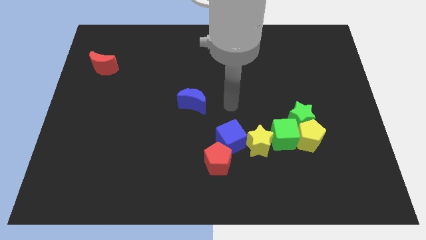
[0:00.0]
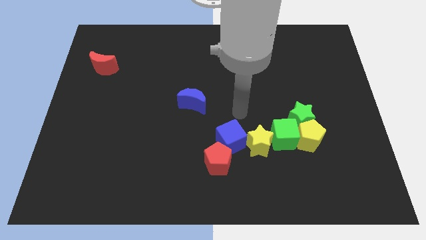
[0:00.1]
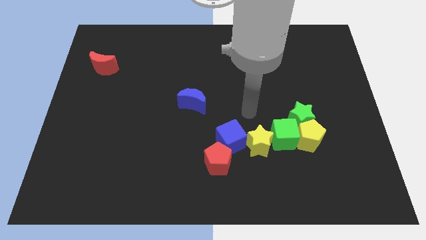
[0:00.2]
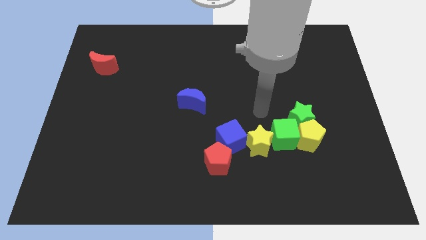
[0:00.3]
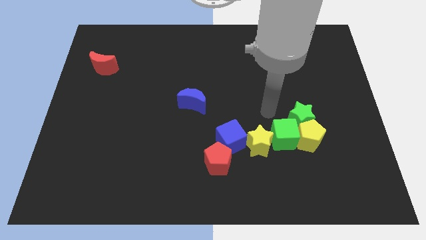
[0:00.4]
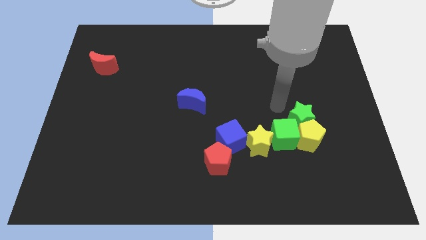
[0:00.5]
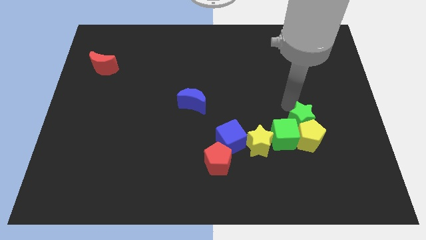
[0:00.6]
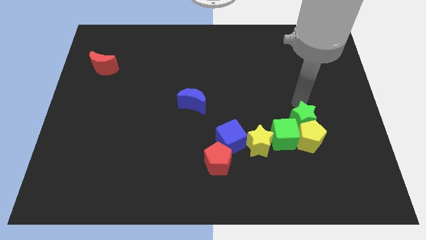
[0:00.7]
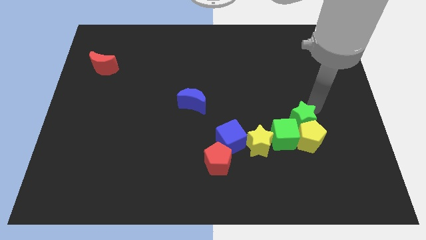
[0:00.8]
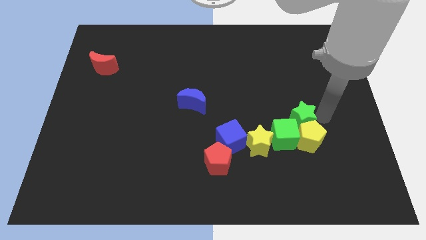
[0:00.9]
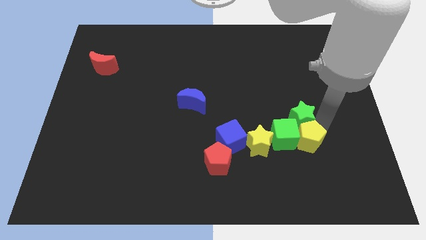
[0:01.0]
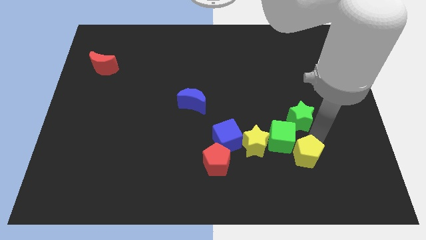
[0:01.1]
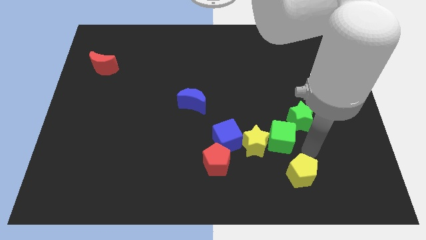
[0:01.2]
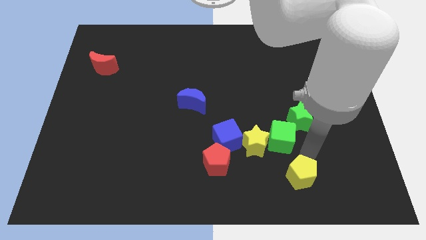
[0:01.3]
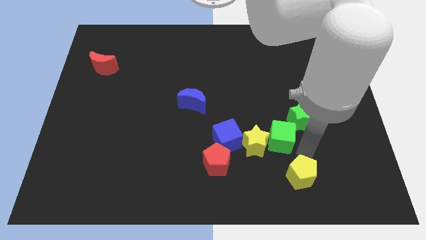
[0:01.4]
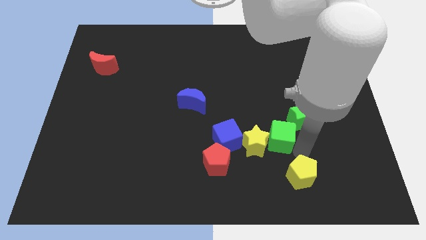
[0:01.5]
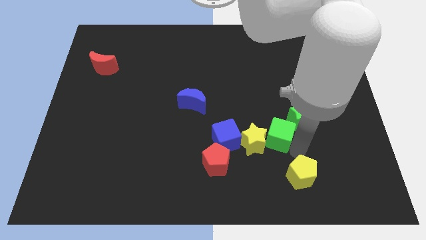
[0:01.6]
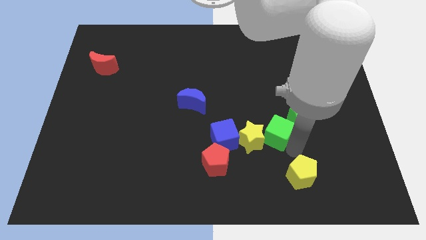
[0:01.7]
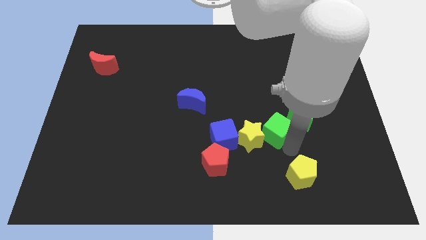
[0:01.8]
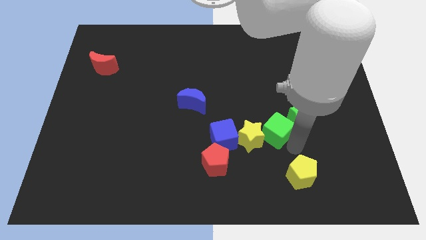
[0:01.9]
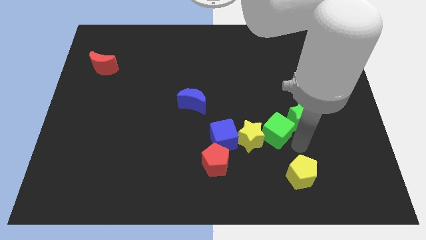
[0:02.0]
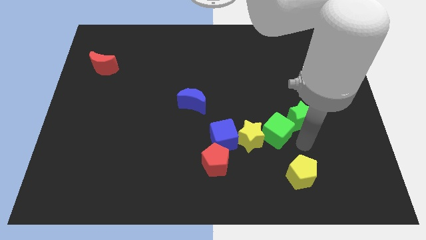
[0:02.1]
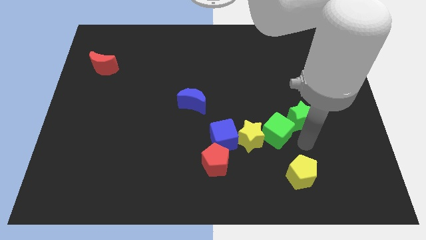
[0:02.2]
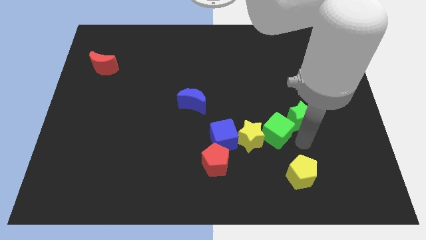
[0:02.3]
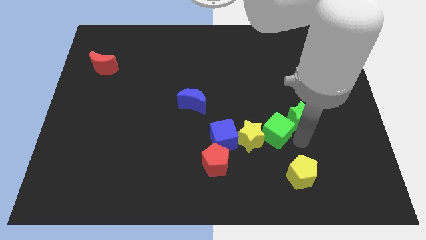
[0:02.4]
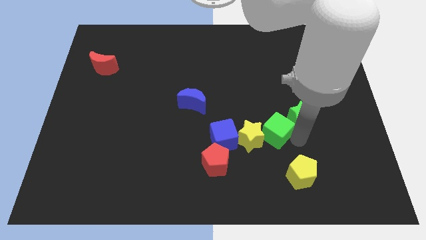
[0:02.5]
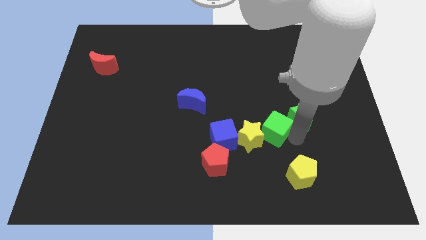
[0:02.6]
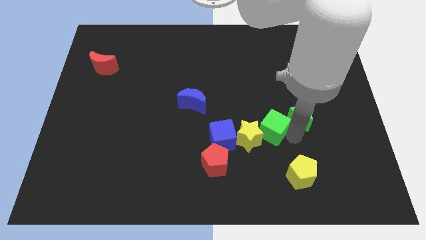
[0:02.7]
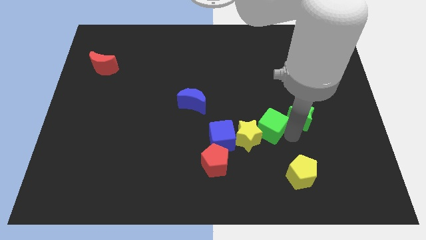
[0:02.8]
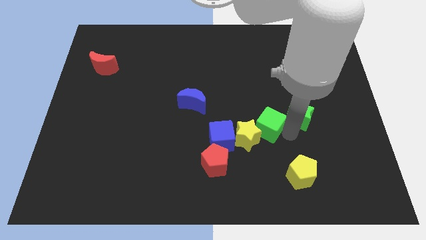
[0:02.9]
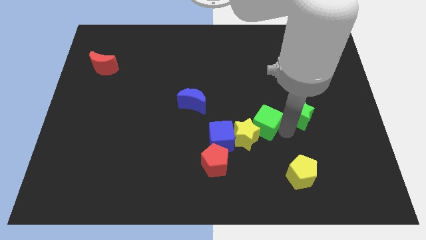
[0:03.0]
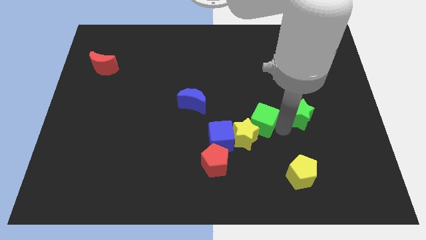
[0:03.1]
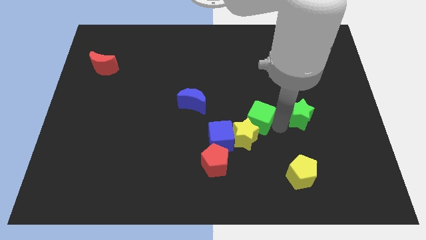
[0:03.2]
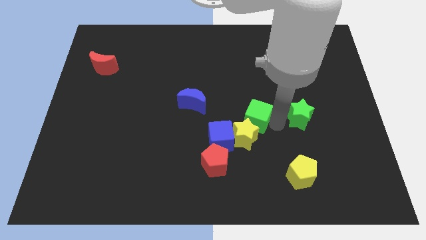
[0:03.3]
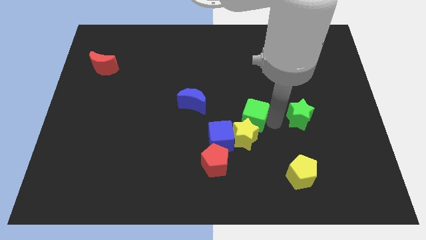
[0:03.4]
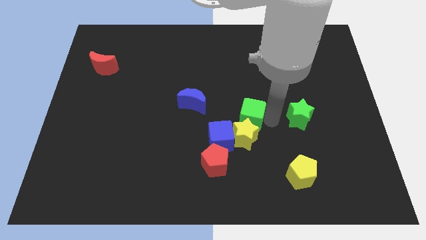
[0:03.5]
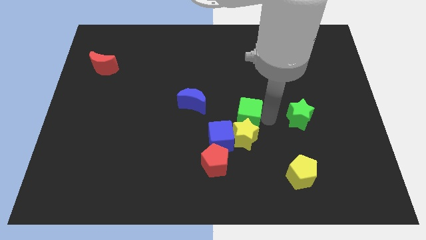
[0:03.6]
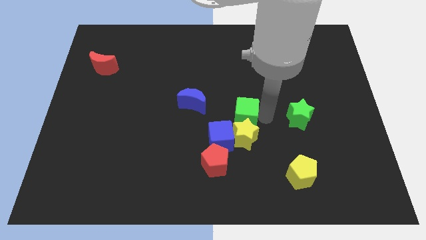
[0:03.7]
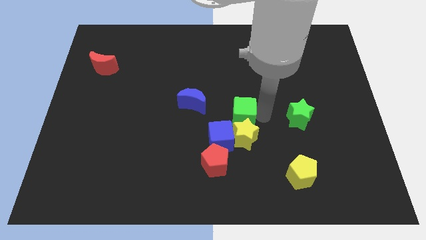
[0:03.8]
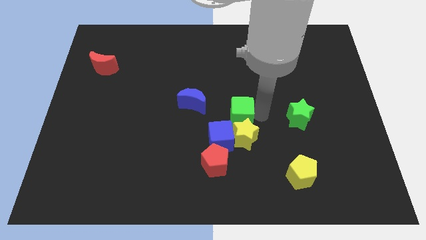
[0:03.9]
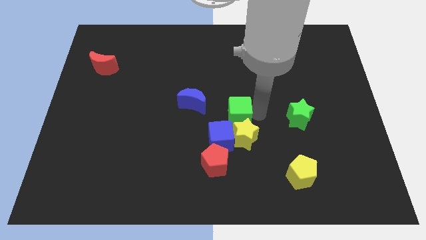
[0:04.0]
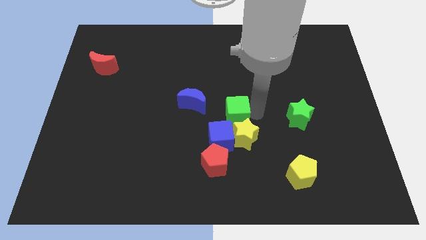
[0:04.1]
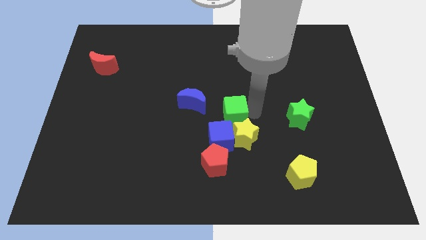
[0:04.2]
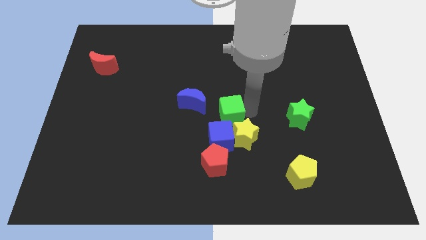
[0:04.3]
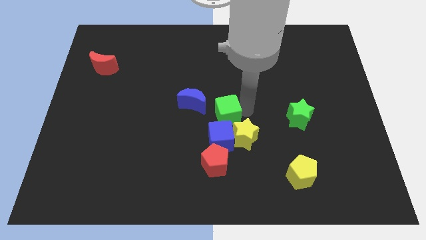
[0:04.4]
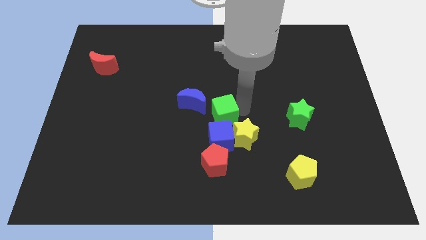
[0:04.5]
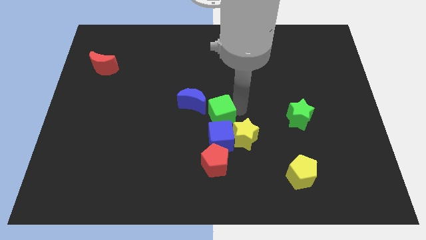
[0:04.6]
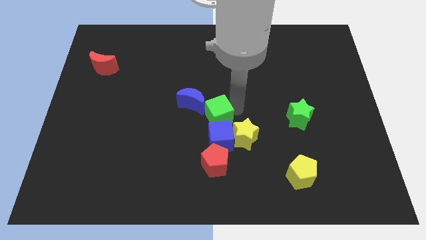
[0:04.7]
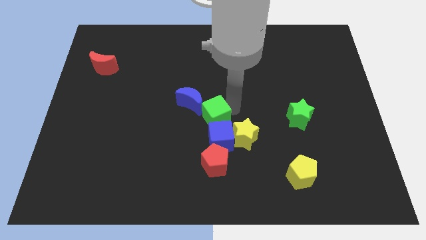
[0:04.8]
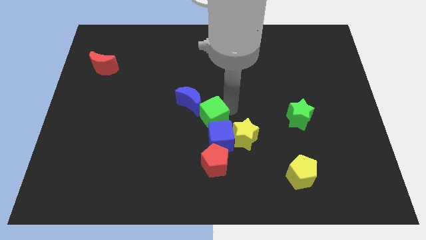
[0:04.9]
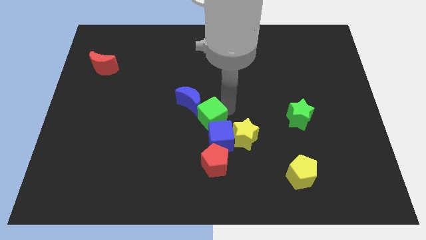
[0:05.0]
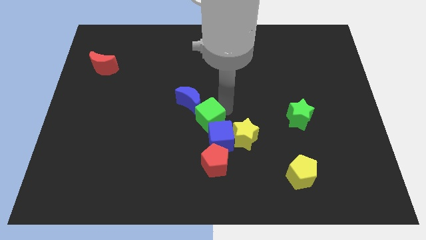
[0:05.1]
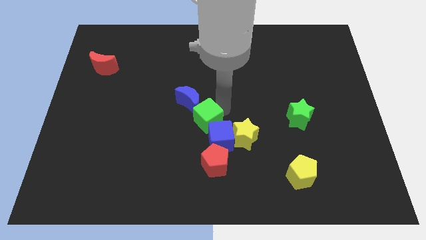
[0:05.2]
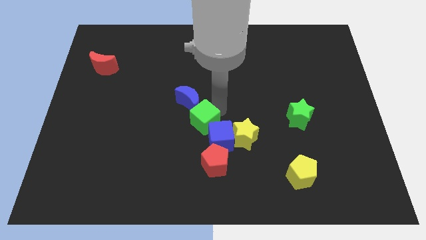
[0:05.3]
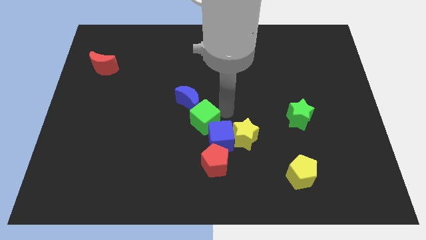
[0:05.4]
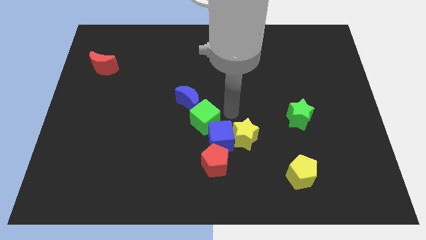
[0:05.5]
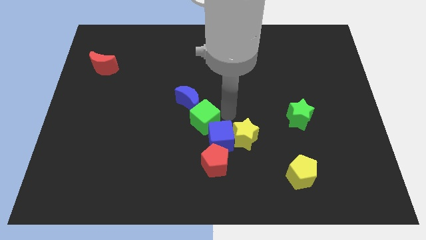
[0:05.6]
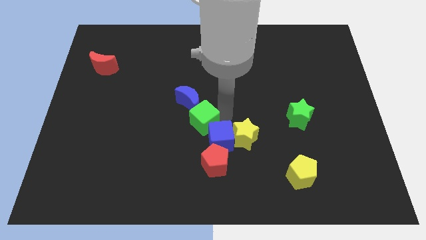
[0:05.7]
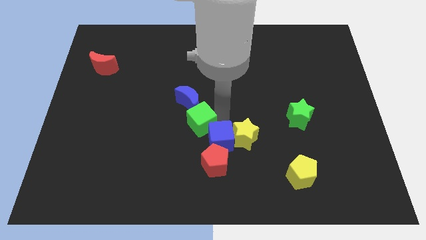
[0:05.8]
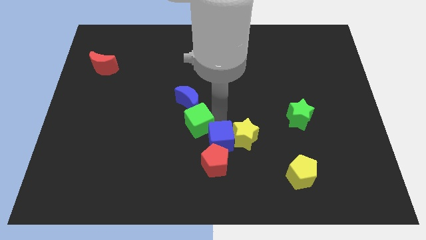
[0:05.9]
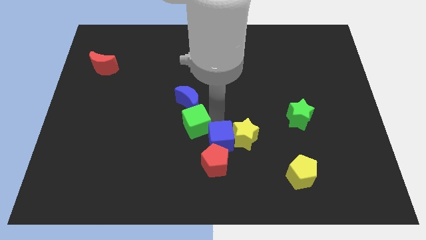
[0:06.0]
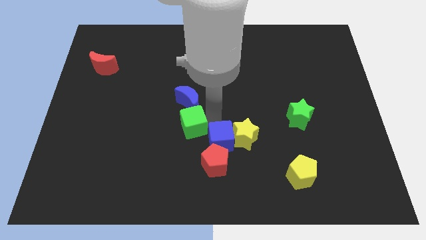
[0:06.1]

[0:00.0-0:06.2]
move the green cube left

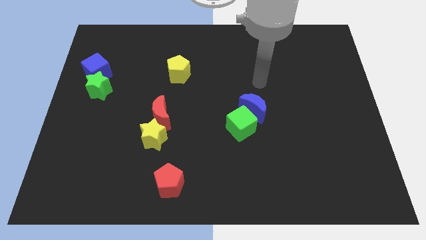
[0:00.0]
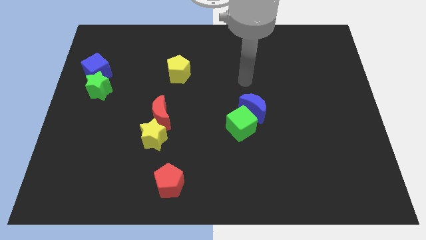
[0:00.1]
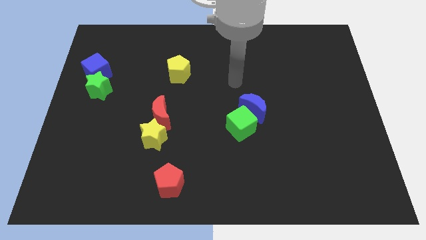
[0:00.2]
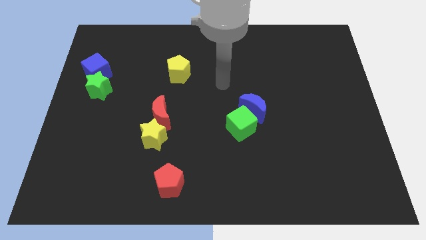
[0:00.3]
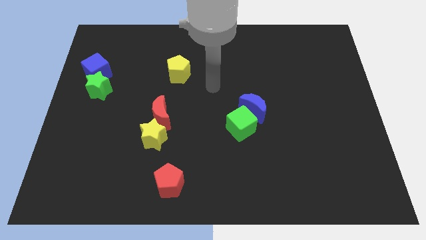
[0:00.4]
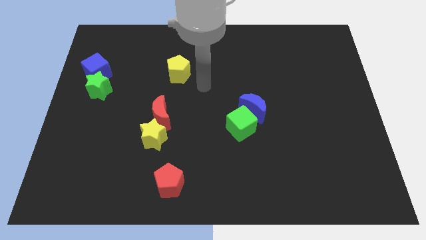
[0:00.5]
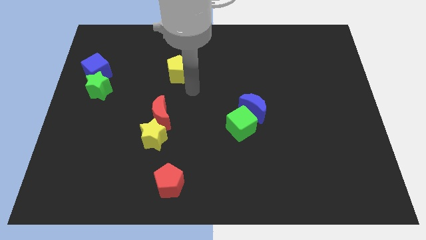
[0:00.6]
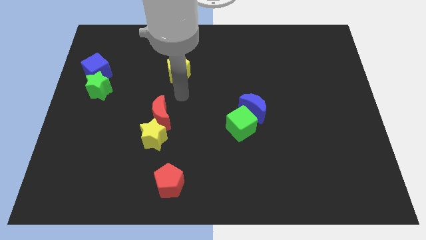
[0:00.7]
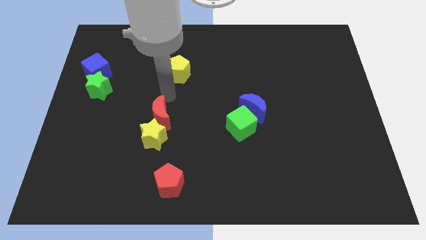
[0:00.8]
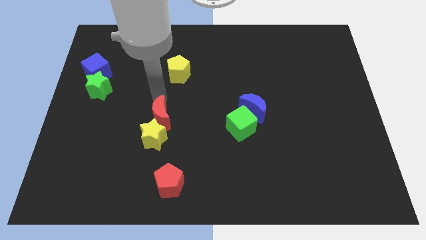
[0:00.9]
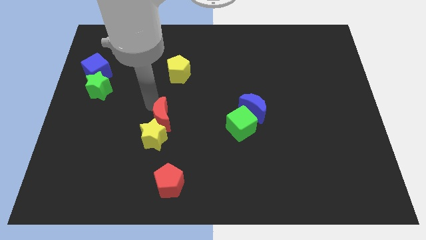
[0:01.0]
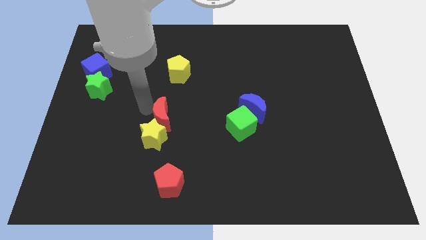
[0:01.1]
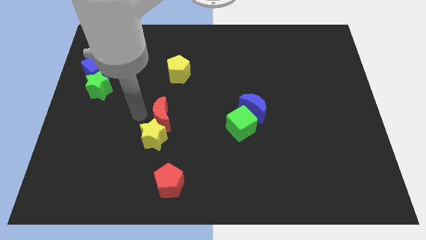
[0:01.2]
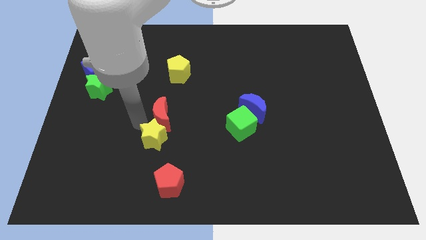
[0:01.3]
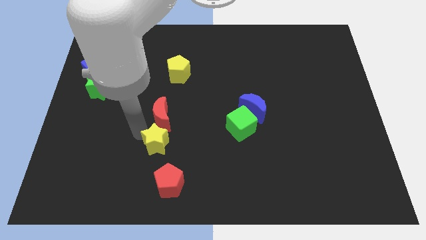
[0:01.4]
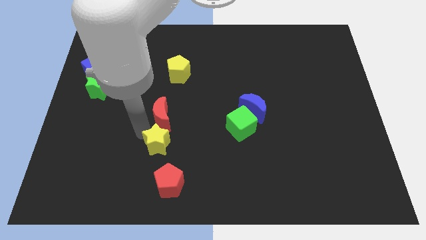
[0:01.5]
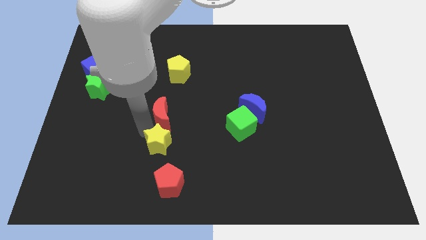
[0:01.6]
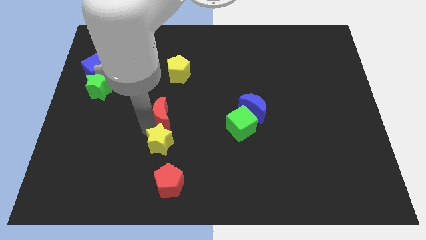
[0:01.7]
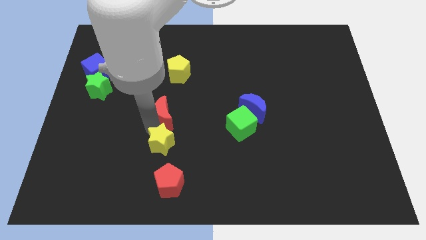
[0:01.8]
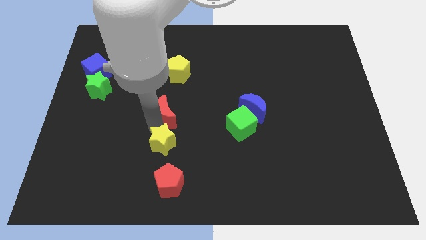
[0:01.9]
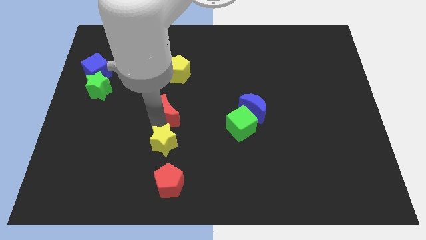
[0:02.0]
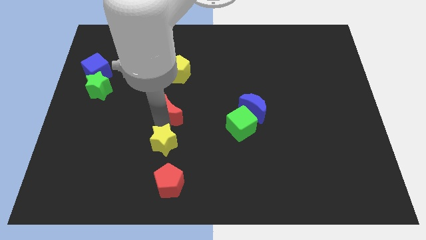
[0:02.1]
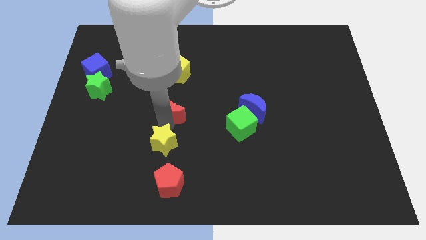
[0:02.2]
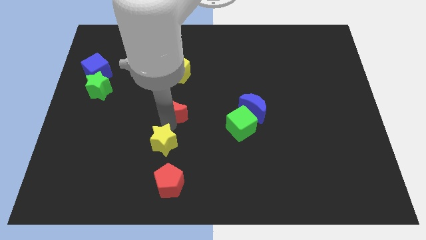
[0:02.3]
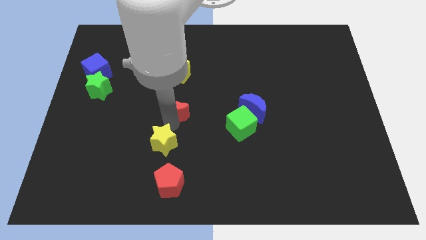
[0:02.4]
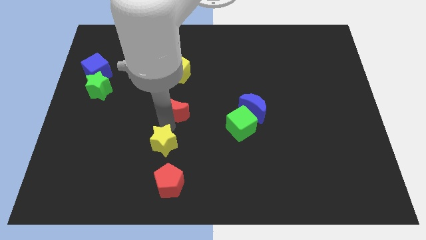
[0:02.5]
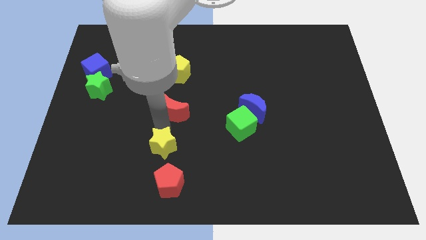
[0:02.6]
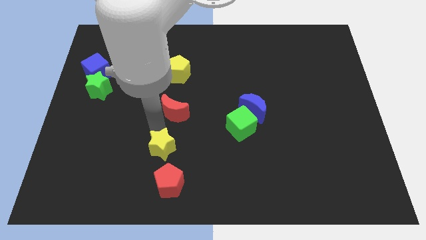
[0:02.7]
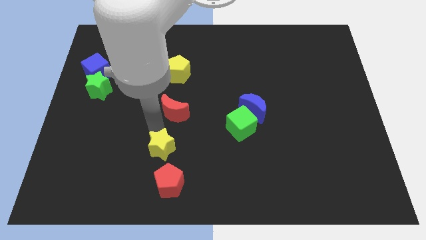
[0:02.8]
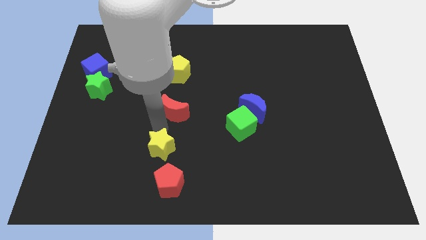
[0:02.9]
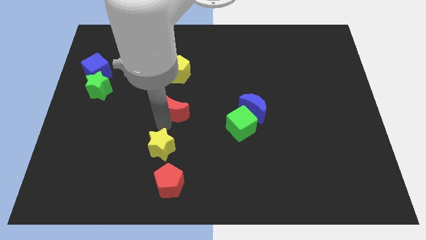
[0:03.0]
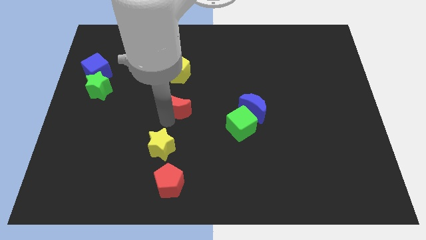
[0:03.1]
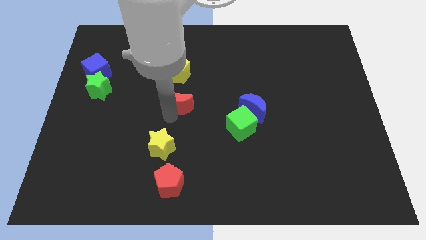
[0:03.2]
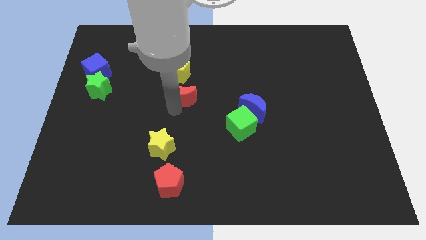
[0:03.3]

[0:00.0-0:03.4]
push the red moon upwards and right a little bit
